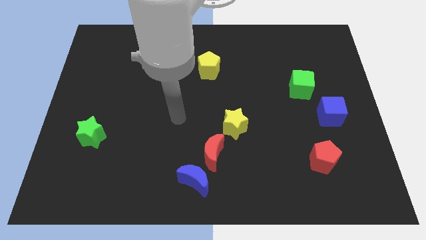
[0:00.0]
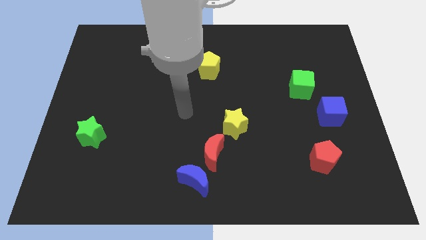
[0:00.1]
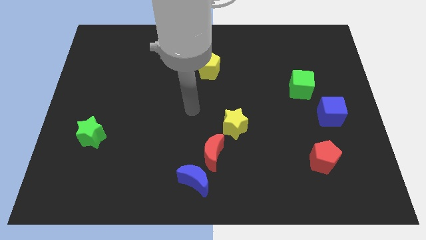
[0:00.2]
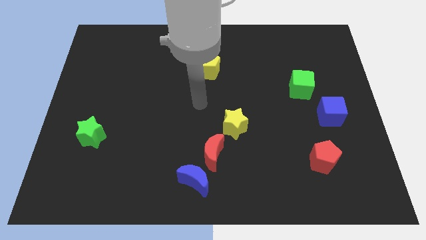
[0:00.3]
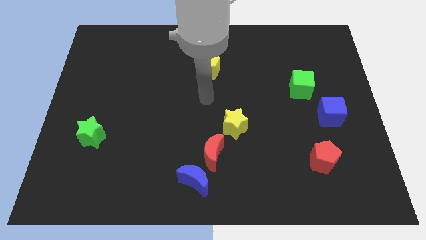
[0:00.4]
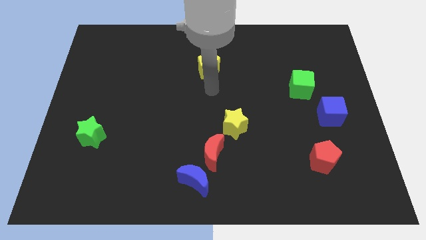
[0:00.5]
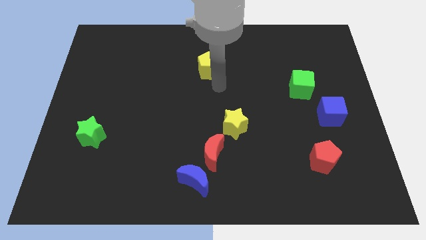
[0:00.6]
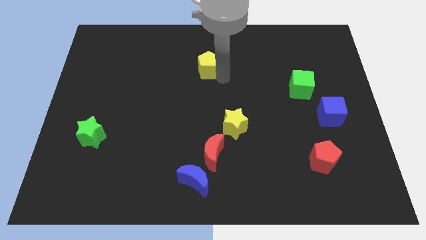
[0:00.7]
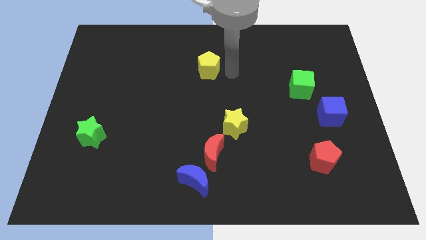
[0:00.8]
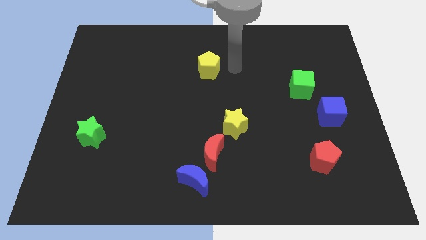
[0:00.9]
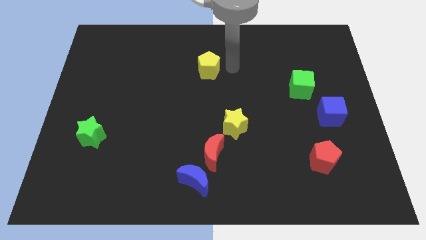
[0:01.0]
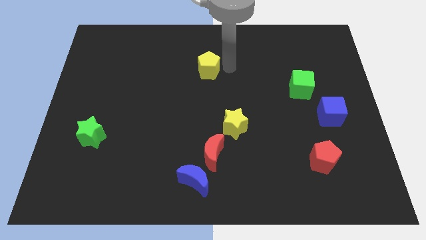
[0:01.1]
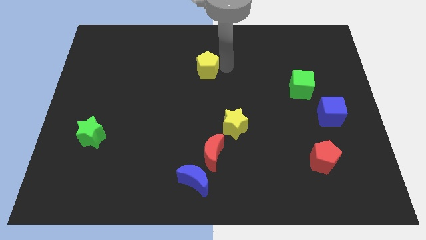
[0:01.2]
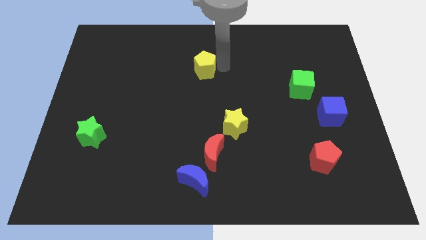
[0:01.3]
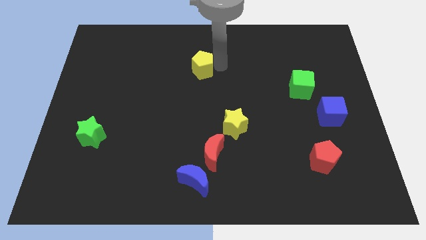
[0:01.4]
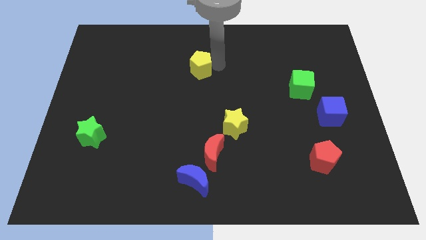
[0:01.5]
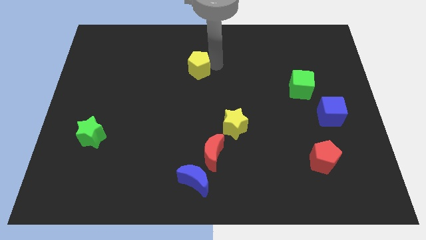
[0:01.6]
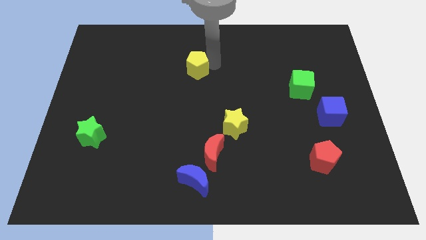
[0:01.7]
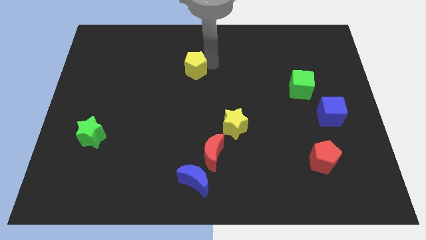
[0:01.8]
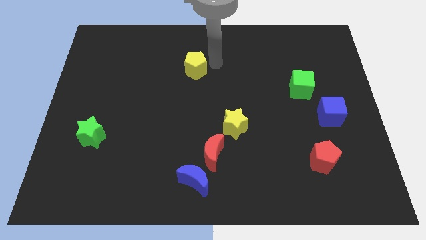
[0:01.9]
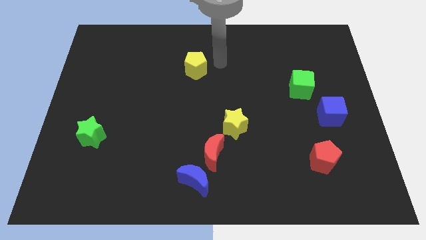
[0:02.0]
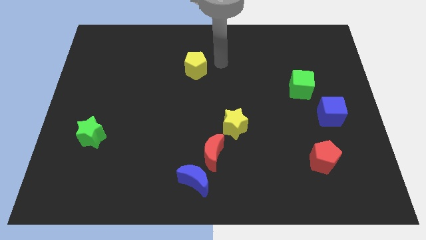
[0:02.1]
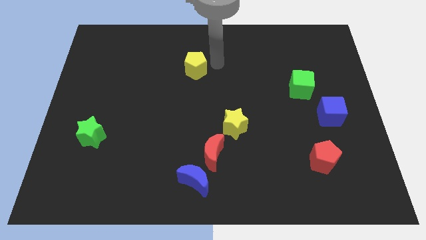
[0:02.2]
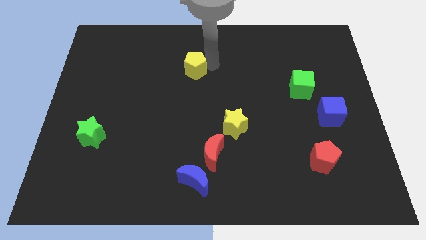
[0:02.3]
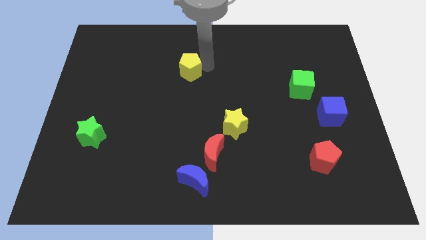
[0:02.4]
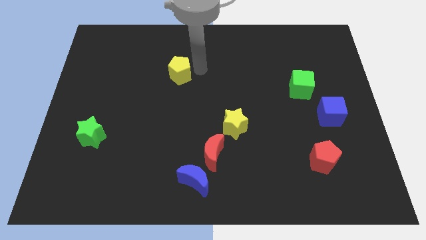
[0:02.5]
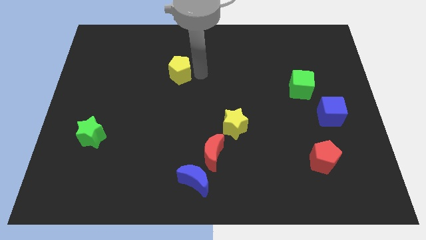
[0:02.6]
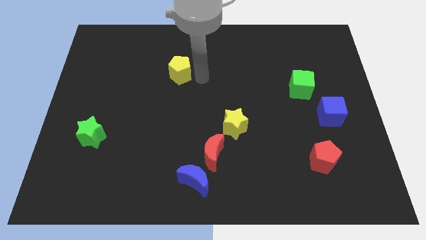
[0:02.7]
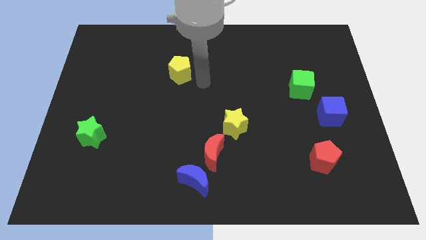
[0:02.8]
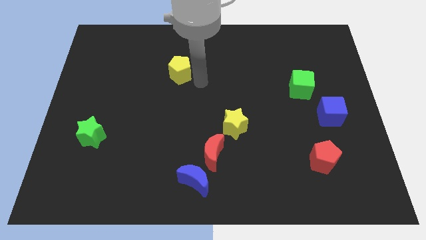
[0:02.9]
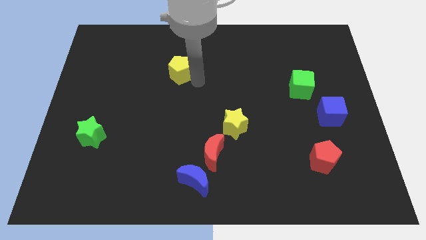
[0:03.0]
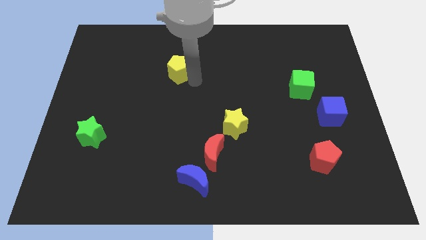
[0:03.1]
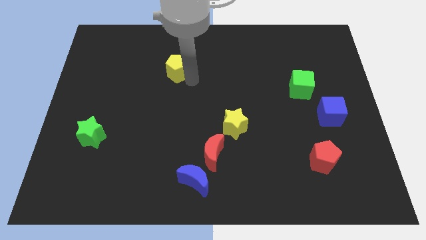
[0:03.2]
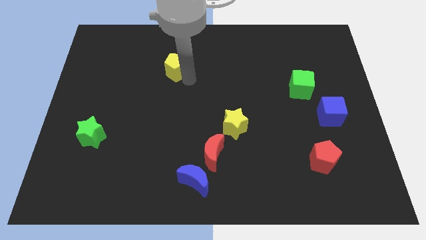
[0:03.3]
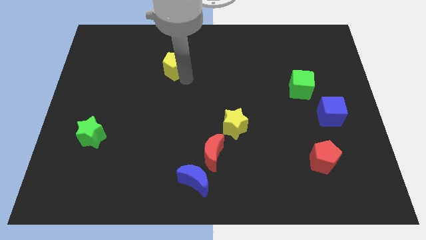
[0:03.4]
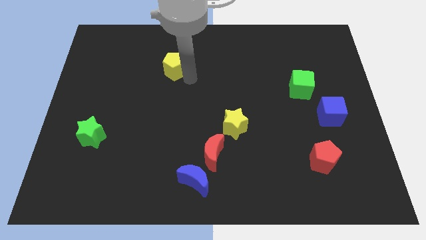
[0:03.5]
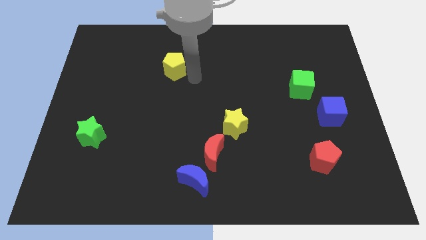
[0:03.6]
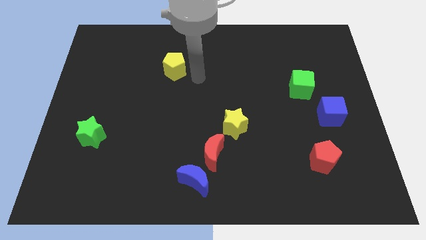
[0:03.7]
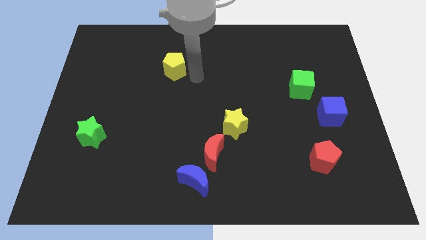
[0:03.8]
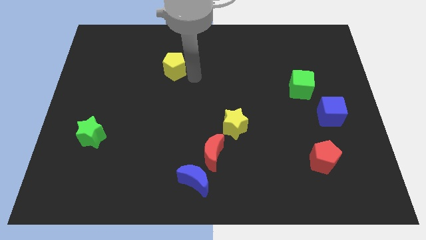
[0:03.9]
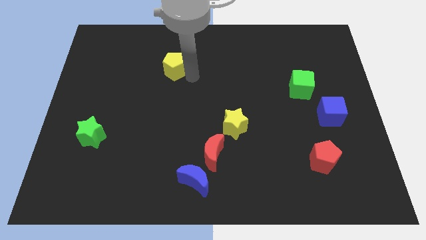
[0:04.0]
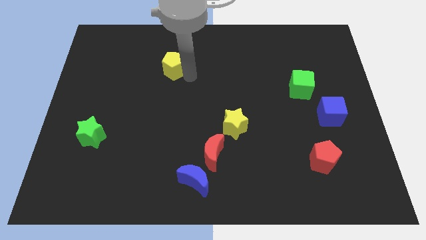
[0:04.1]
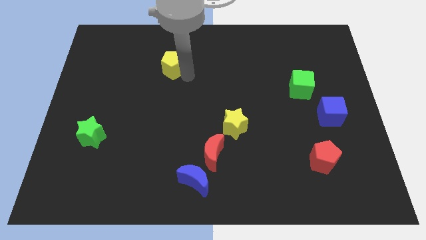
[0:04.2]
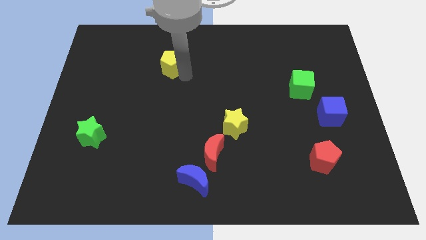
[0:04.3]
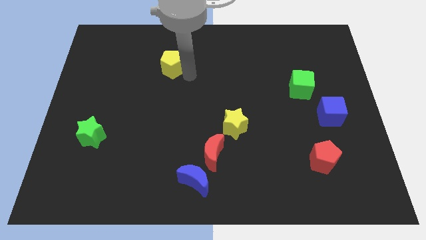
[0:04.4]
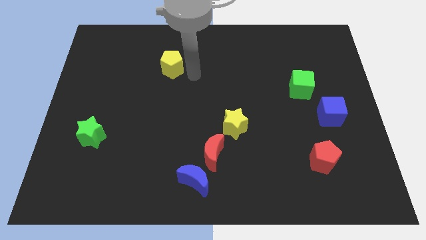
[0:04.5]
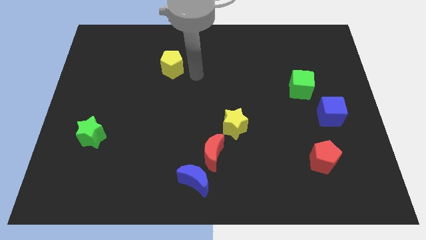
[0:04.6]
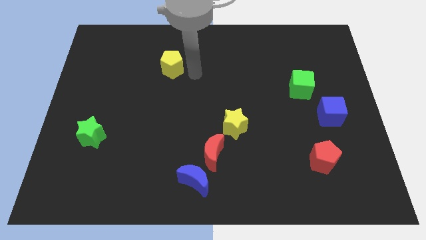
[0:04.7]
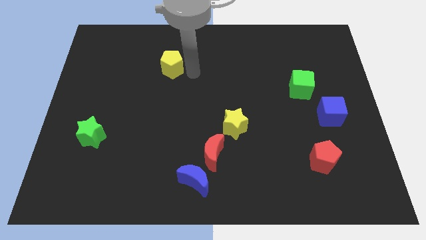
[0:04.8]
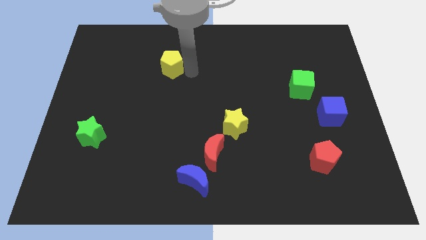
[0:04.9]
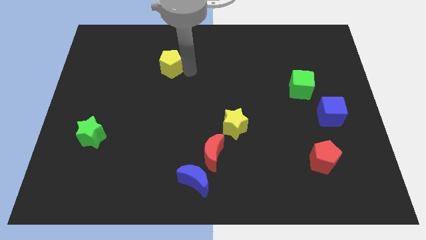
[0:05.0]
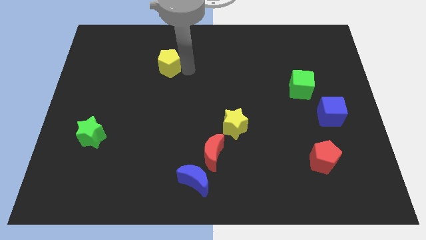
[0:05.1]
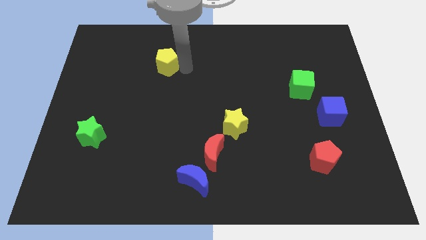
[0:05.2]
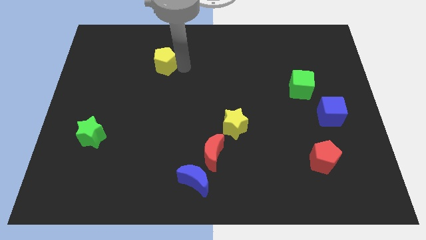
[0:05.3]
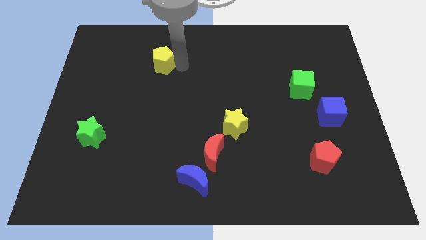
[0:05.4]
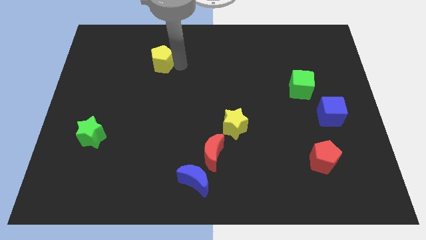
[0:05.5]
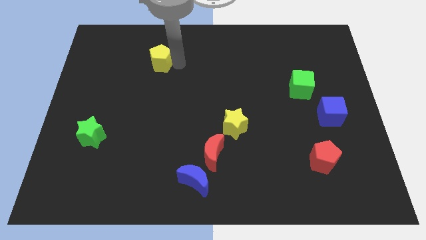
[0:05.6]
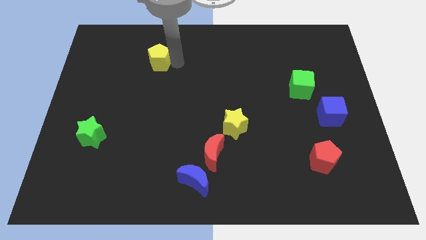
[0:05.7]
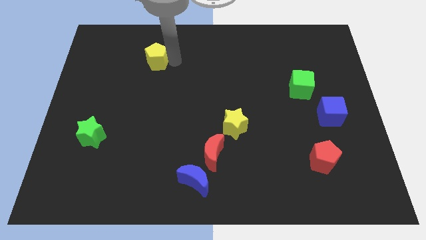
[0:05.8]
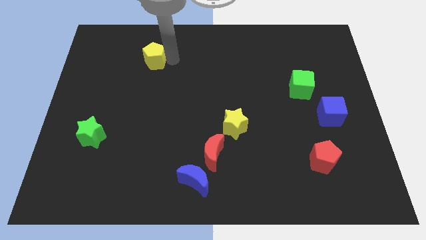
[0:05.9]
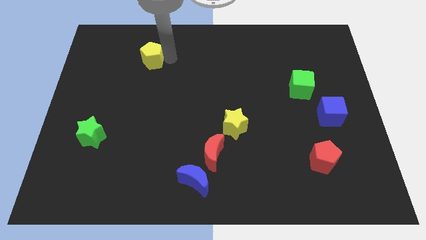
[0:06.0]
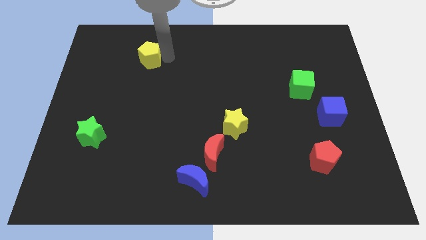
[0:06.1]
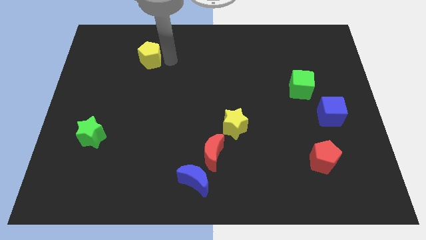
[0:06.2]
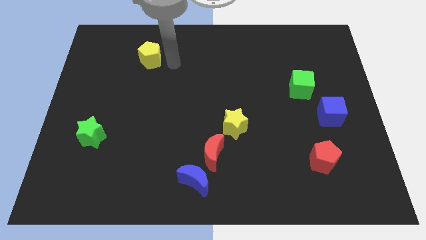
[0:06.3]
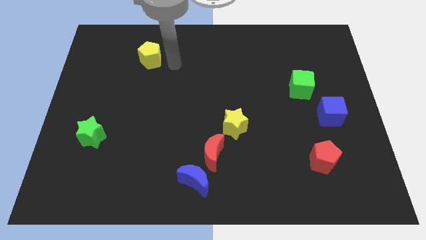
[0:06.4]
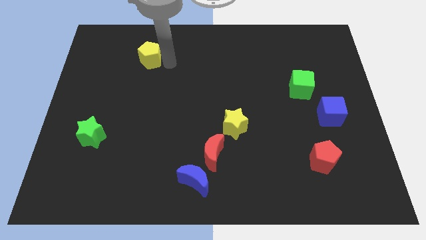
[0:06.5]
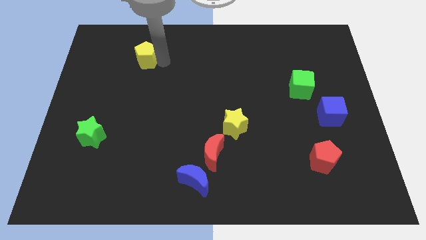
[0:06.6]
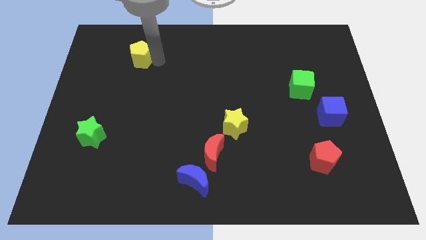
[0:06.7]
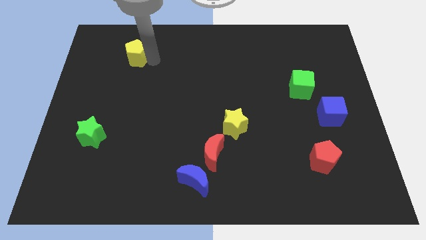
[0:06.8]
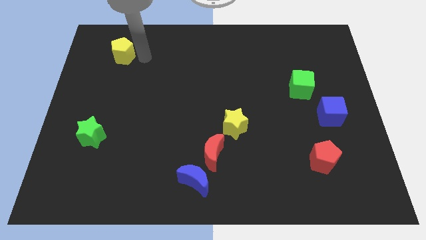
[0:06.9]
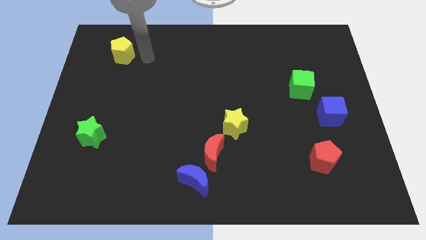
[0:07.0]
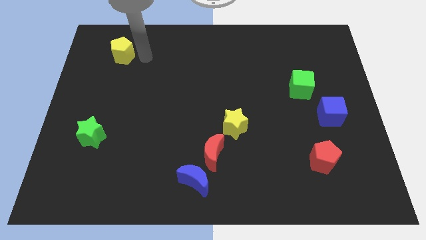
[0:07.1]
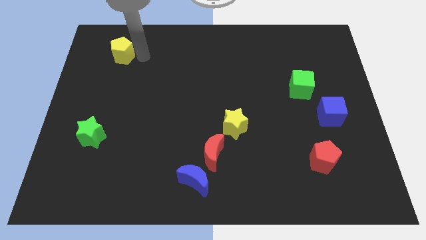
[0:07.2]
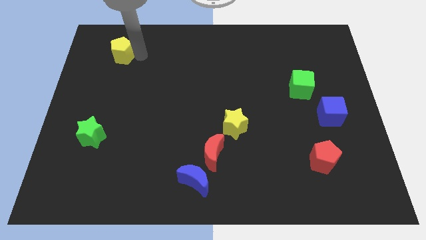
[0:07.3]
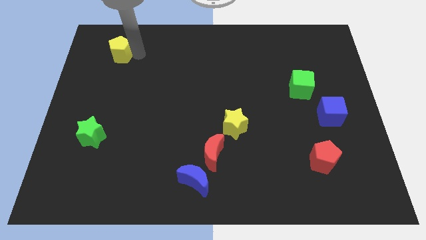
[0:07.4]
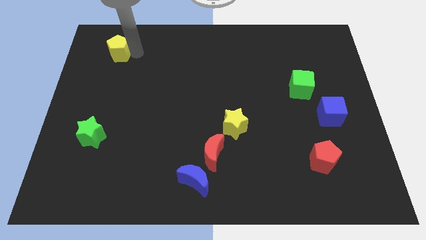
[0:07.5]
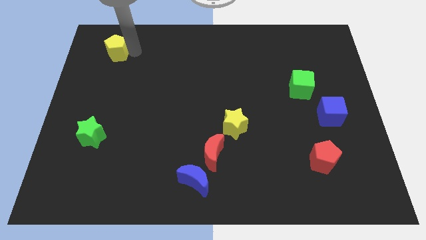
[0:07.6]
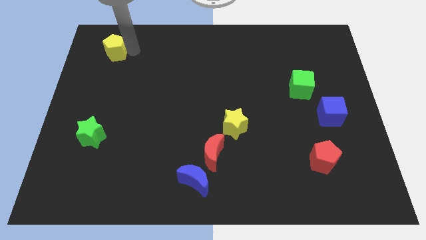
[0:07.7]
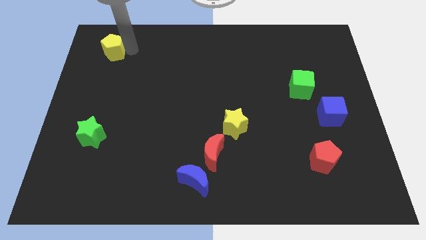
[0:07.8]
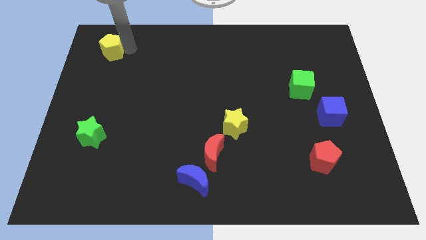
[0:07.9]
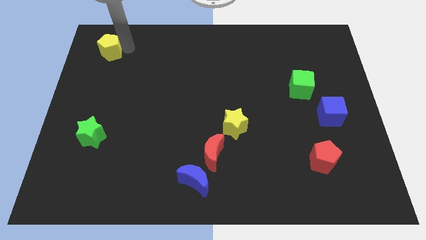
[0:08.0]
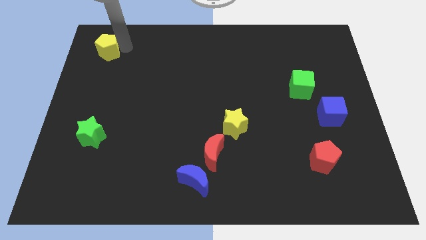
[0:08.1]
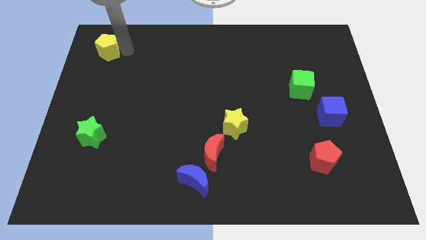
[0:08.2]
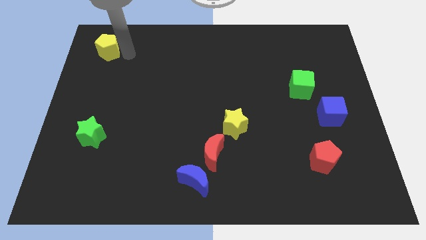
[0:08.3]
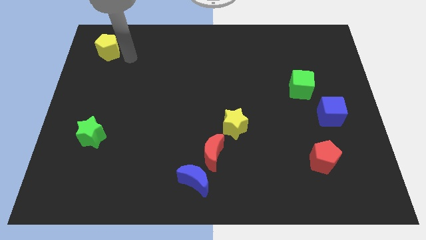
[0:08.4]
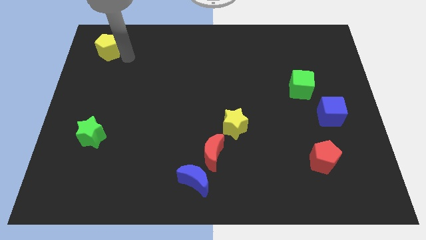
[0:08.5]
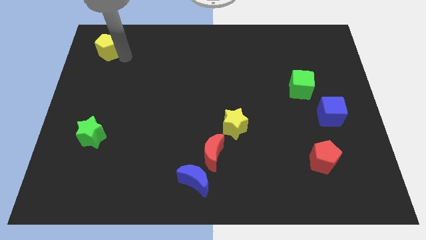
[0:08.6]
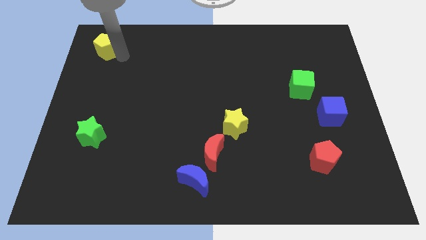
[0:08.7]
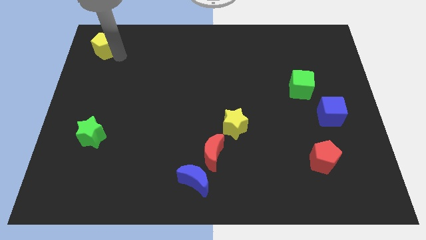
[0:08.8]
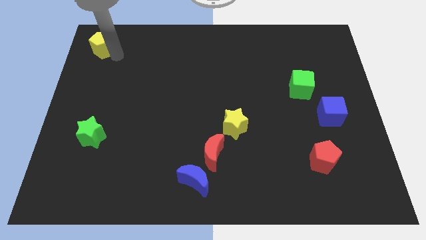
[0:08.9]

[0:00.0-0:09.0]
push the yellow pentagon to the top left
